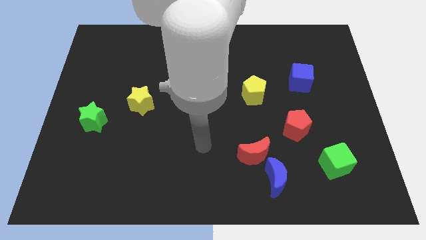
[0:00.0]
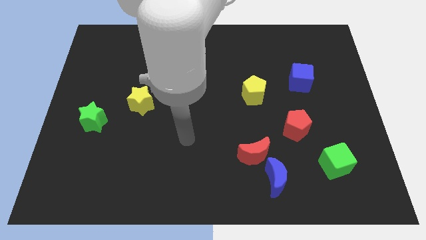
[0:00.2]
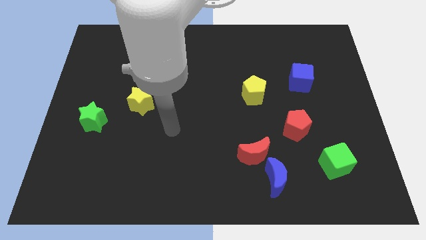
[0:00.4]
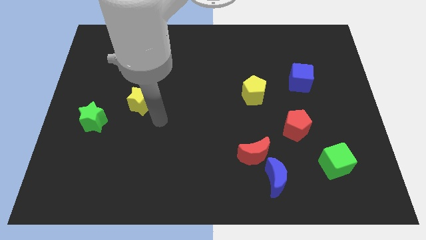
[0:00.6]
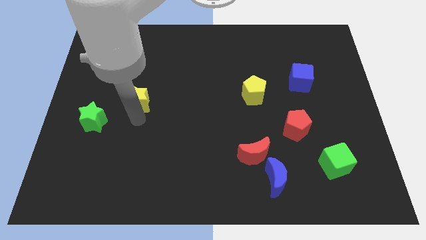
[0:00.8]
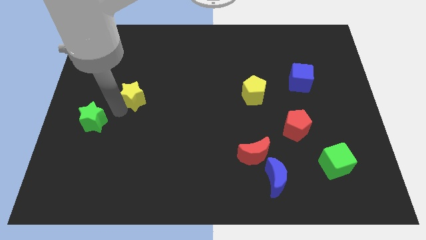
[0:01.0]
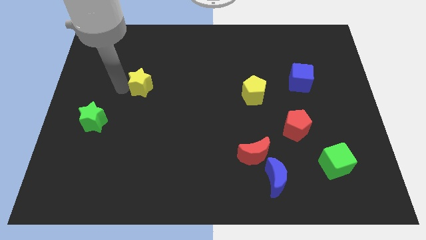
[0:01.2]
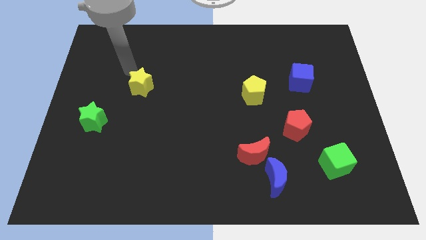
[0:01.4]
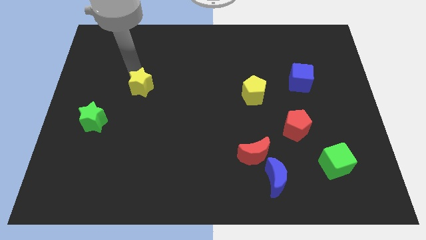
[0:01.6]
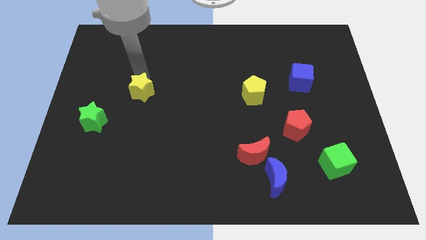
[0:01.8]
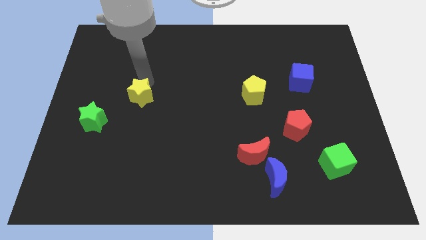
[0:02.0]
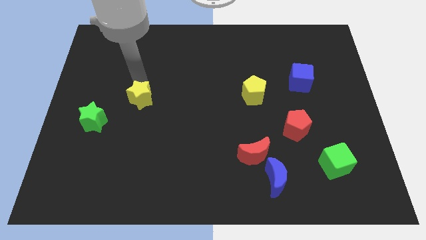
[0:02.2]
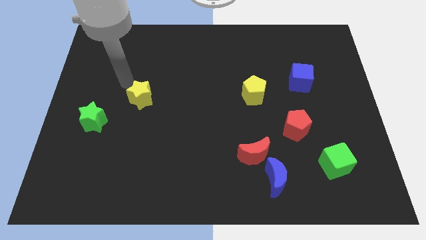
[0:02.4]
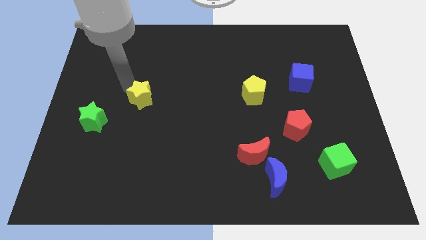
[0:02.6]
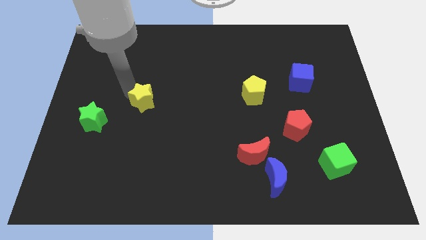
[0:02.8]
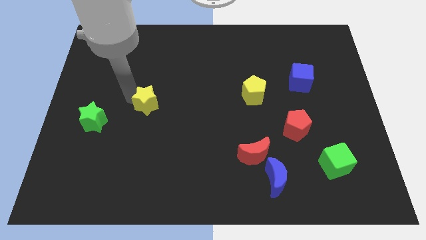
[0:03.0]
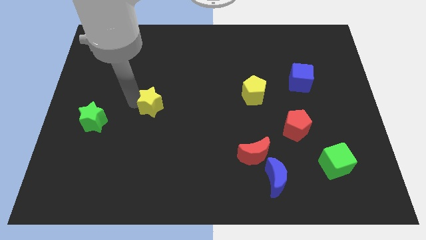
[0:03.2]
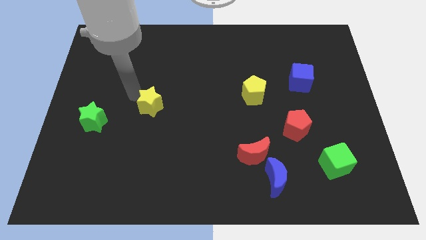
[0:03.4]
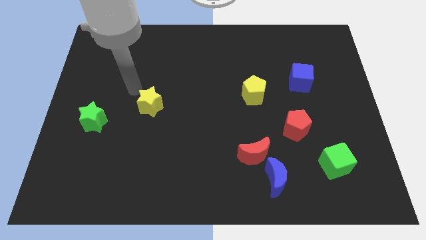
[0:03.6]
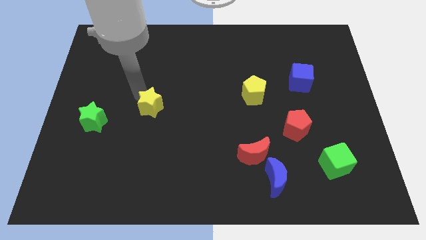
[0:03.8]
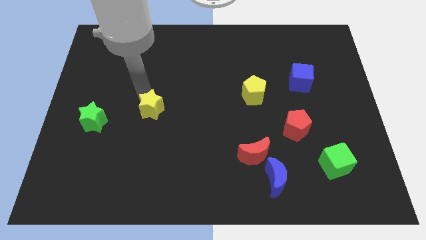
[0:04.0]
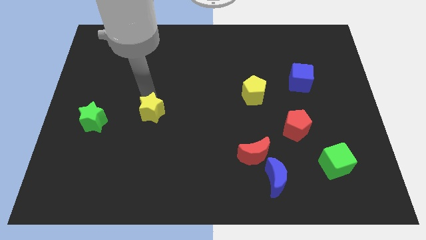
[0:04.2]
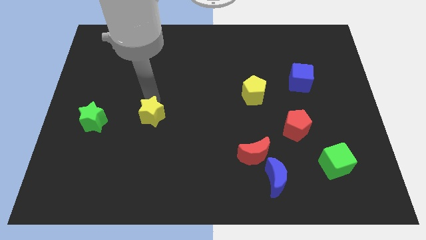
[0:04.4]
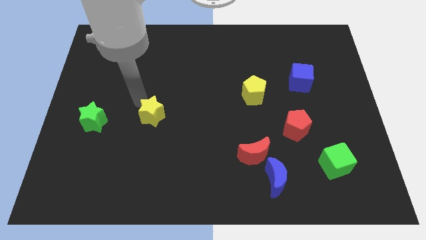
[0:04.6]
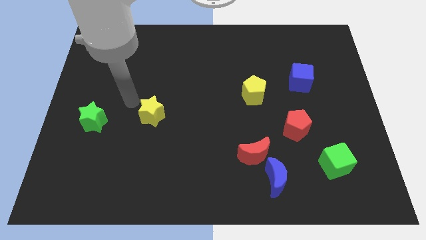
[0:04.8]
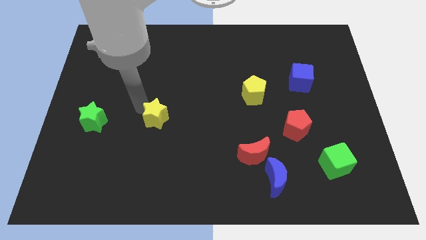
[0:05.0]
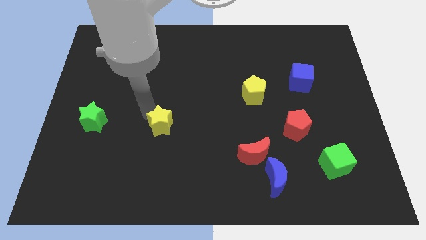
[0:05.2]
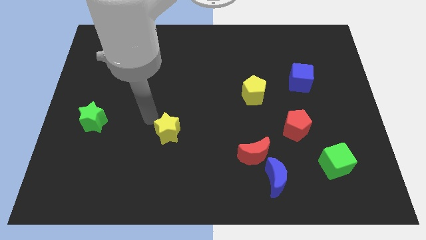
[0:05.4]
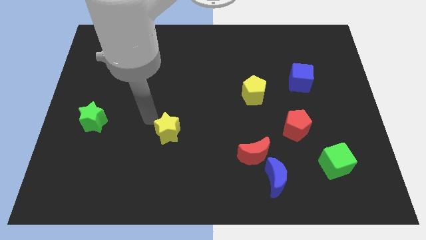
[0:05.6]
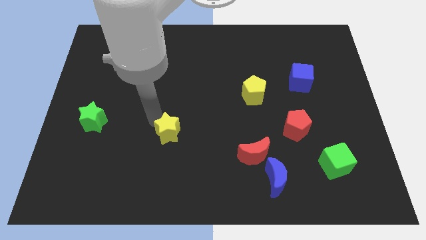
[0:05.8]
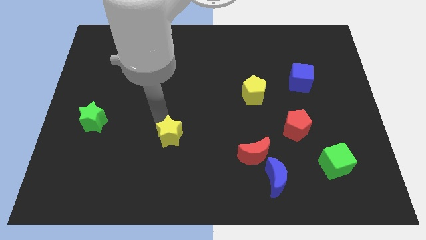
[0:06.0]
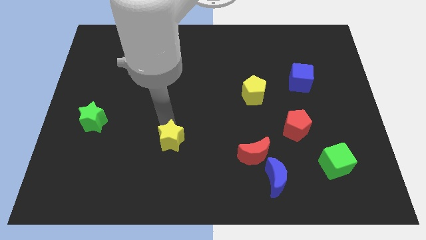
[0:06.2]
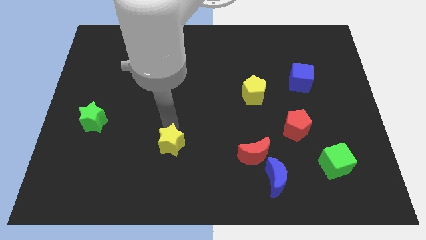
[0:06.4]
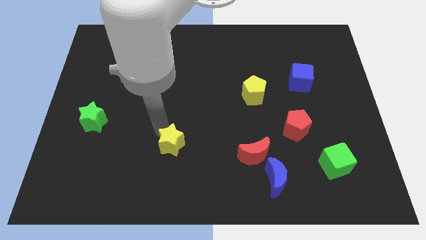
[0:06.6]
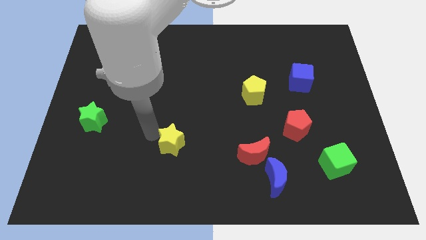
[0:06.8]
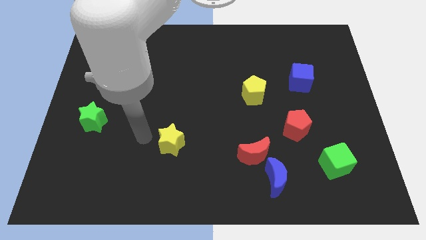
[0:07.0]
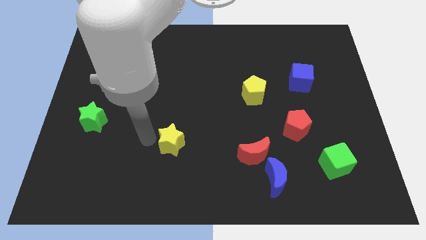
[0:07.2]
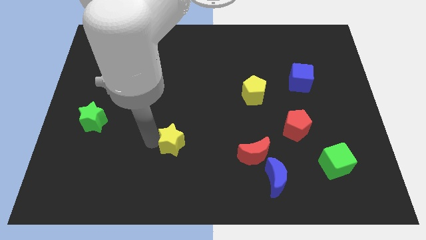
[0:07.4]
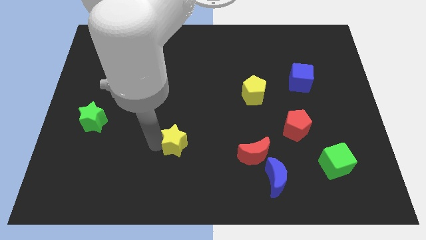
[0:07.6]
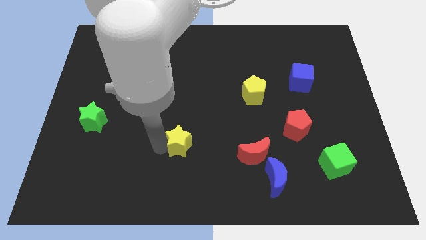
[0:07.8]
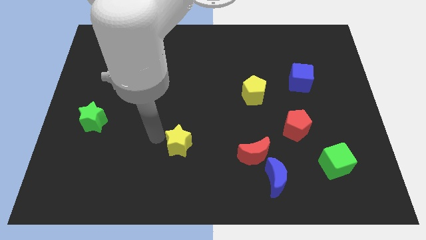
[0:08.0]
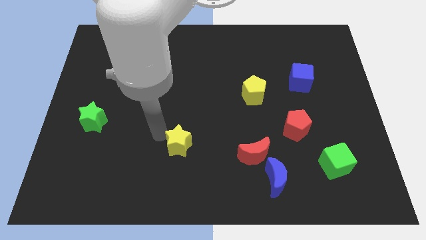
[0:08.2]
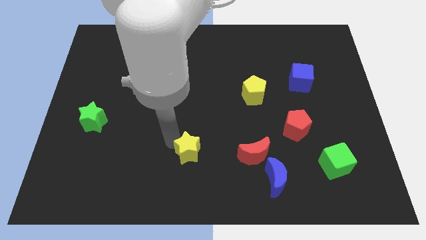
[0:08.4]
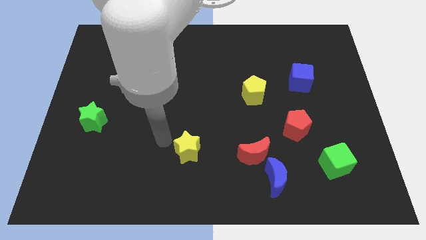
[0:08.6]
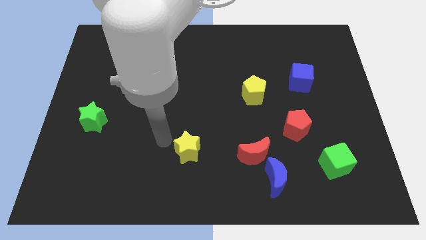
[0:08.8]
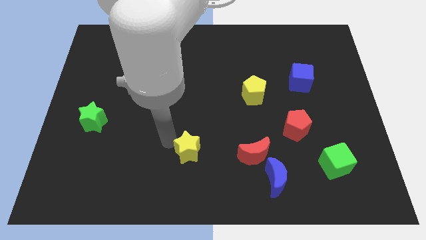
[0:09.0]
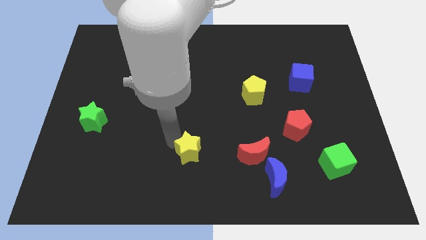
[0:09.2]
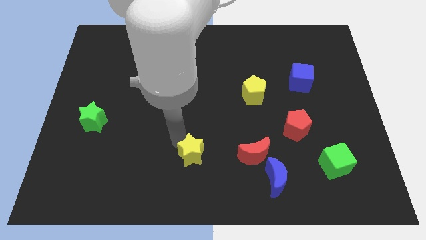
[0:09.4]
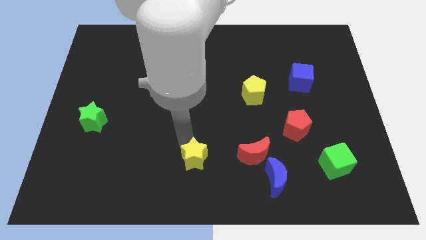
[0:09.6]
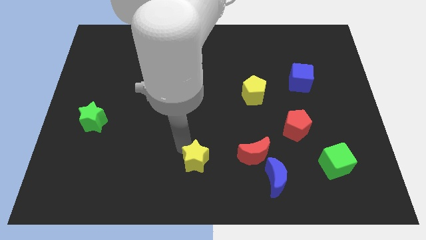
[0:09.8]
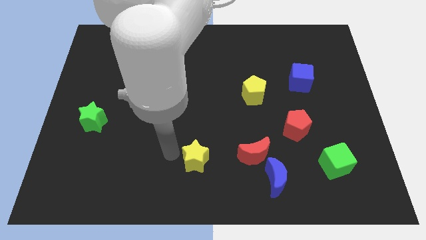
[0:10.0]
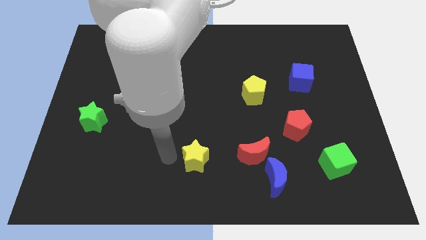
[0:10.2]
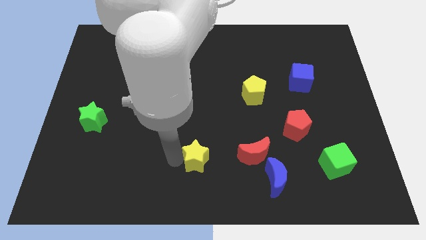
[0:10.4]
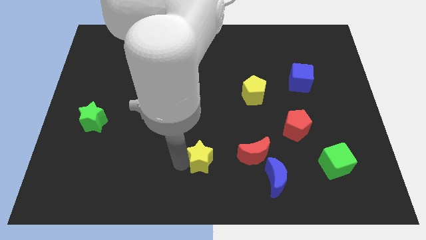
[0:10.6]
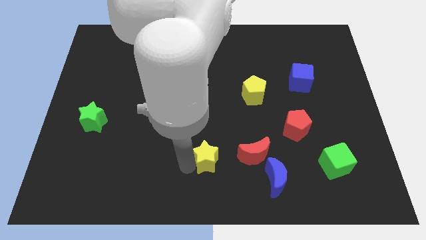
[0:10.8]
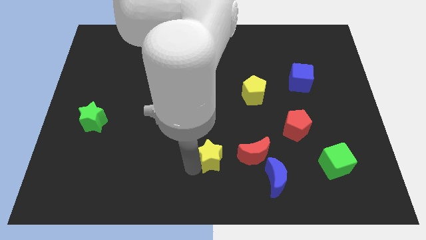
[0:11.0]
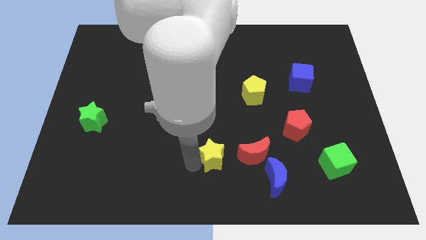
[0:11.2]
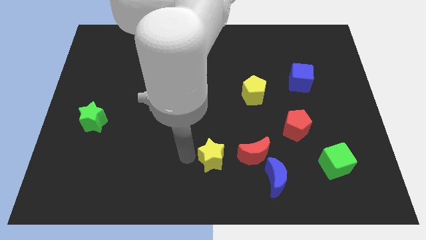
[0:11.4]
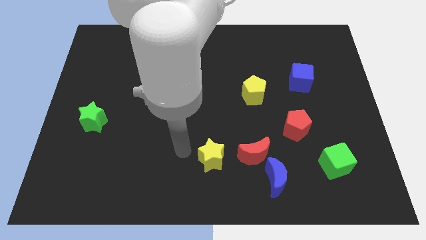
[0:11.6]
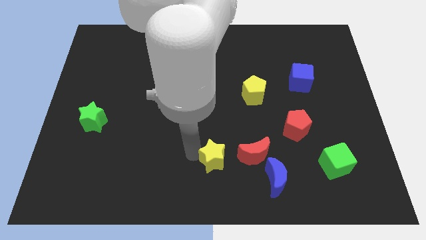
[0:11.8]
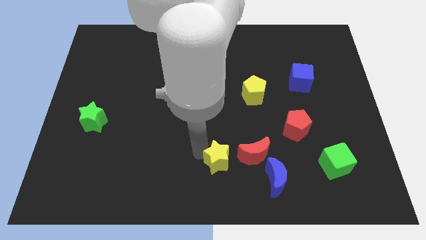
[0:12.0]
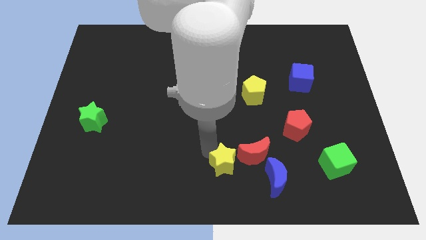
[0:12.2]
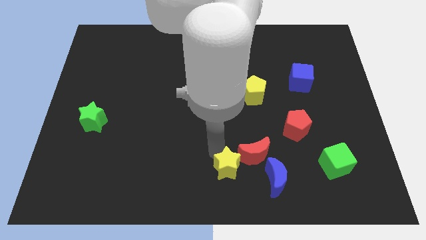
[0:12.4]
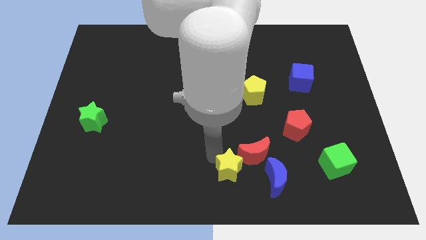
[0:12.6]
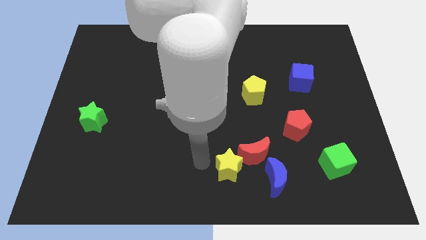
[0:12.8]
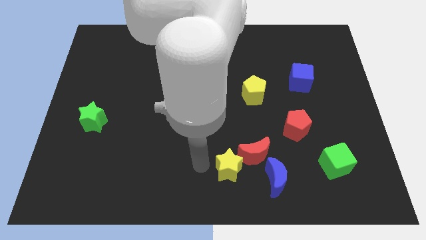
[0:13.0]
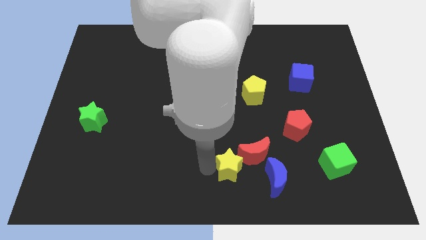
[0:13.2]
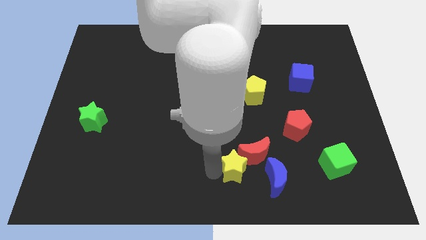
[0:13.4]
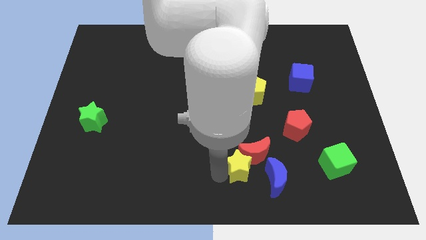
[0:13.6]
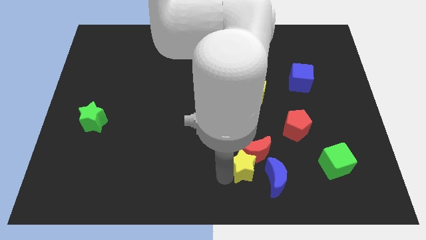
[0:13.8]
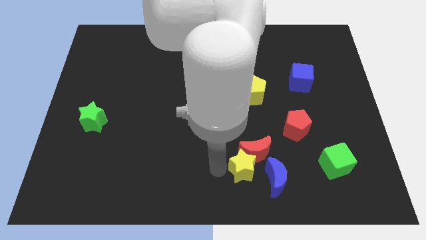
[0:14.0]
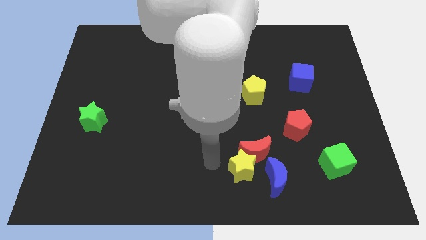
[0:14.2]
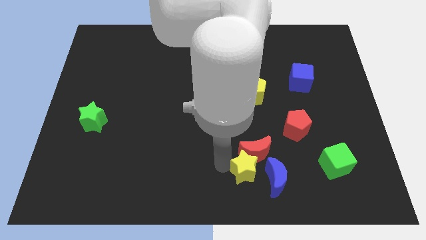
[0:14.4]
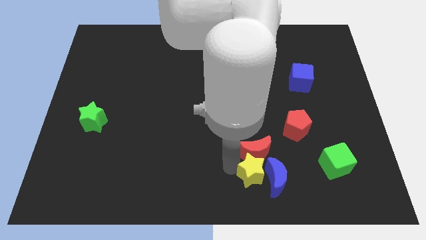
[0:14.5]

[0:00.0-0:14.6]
slide the yellow star next to the blue moon
